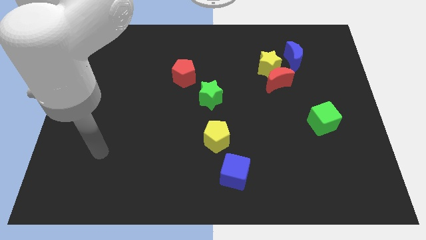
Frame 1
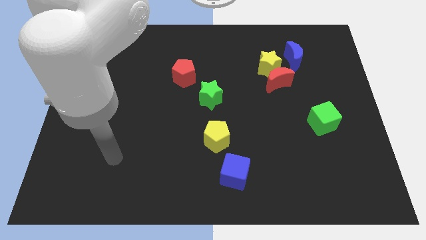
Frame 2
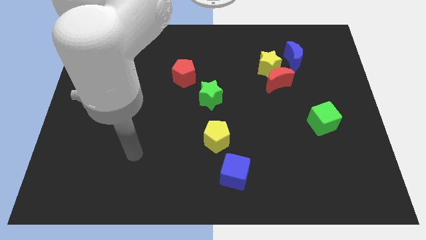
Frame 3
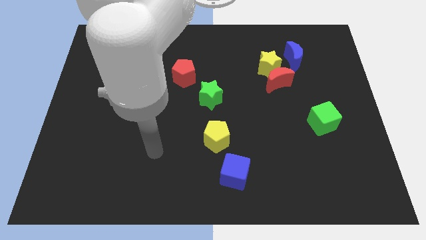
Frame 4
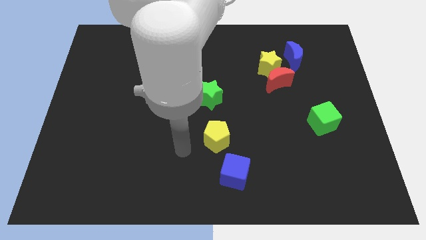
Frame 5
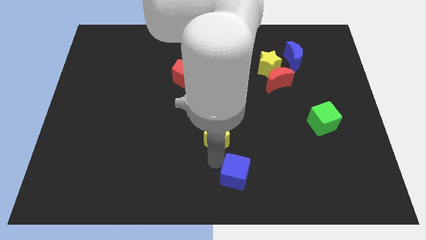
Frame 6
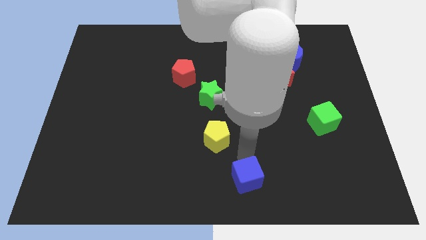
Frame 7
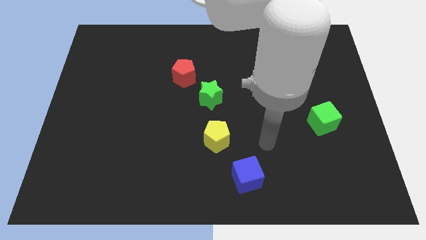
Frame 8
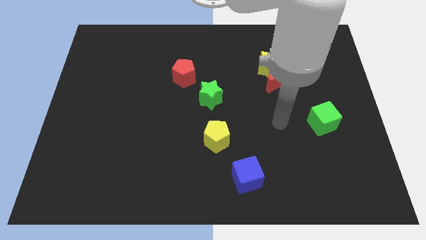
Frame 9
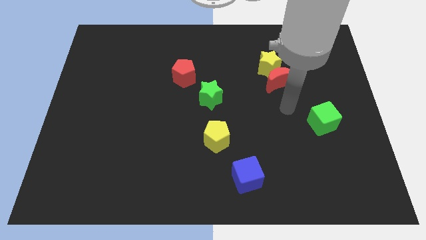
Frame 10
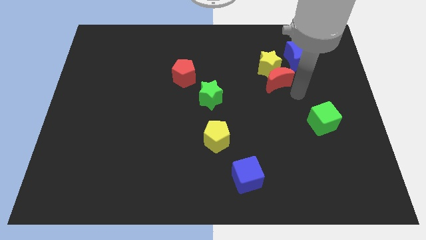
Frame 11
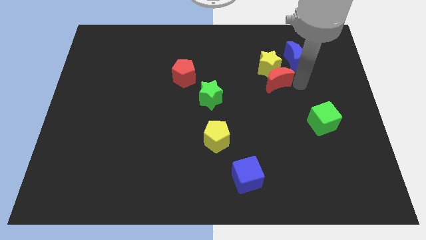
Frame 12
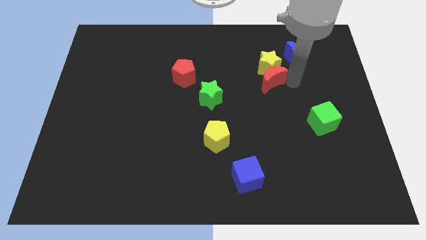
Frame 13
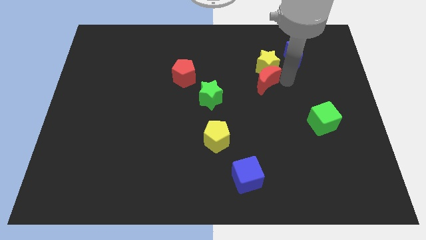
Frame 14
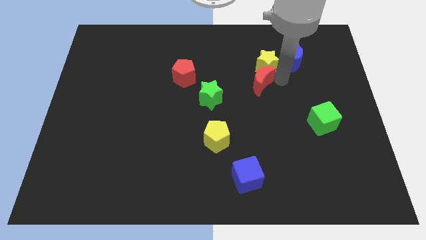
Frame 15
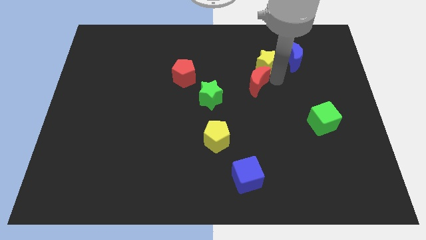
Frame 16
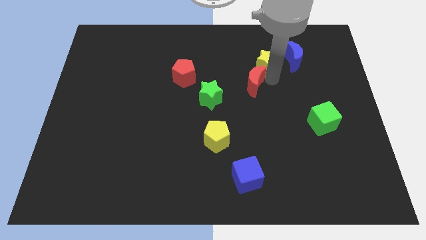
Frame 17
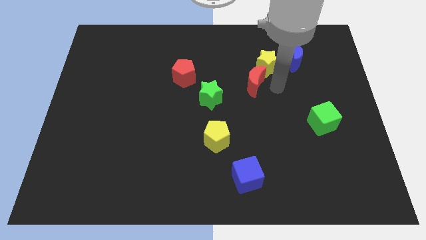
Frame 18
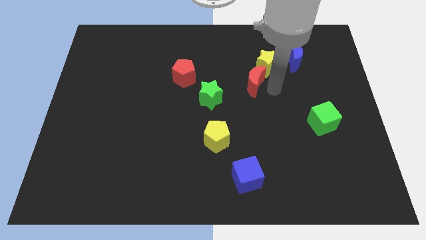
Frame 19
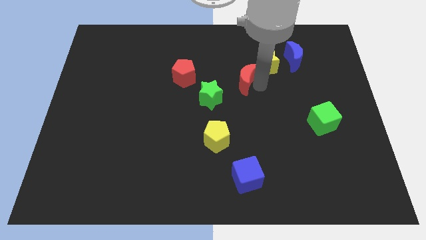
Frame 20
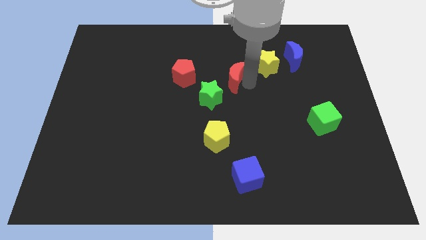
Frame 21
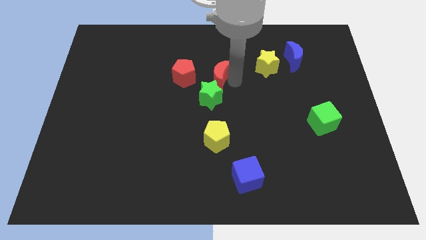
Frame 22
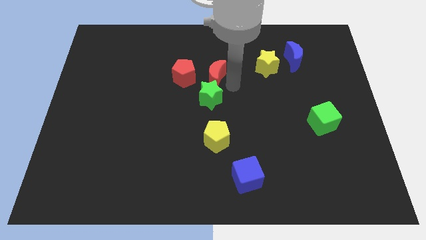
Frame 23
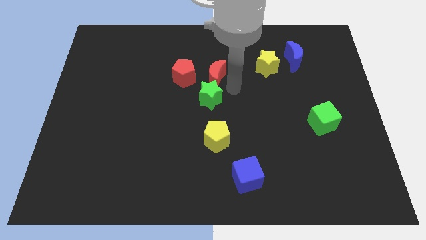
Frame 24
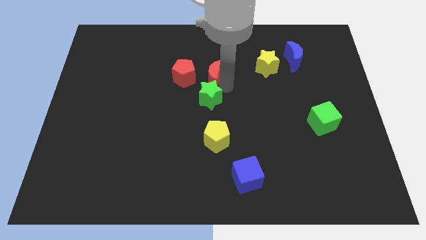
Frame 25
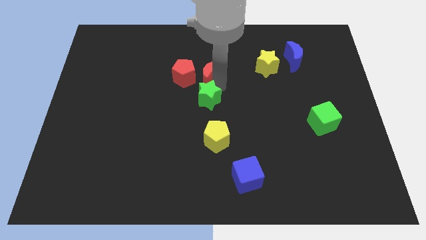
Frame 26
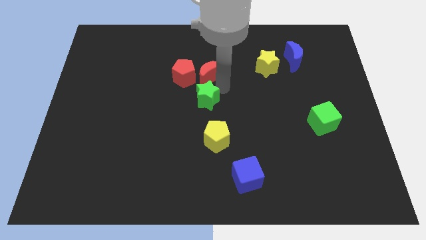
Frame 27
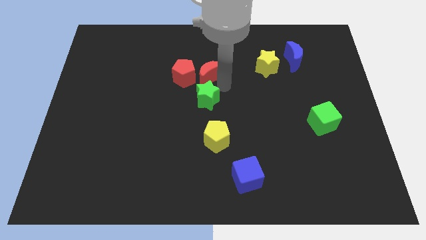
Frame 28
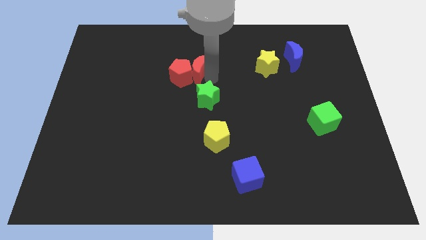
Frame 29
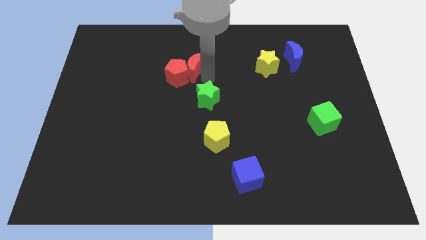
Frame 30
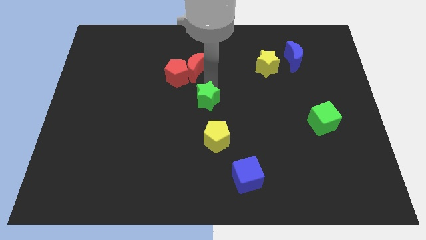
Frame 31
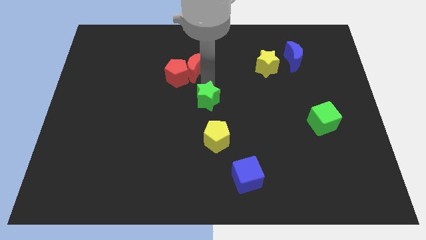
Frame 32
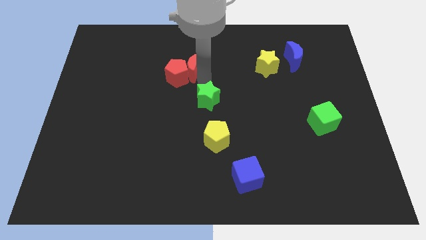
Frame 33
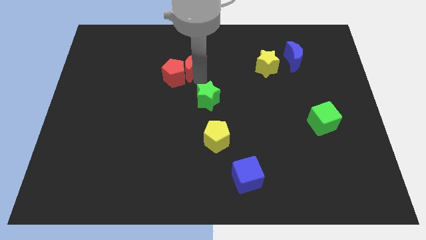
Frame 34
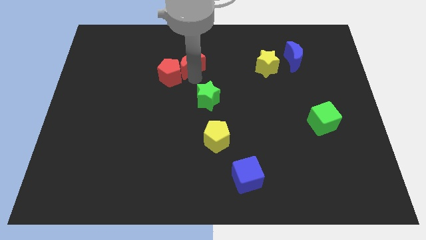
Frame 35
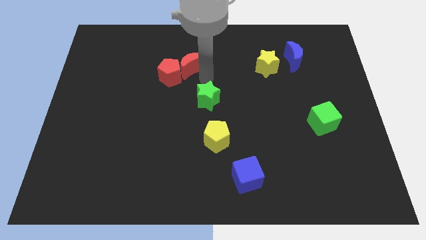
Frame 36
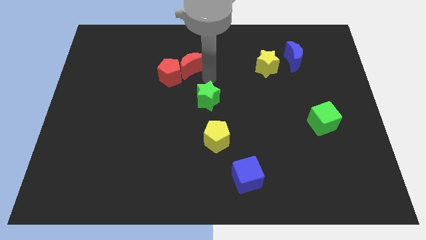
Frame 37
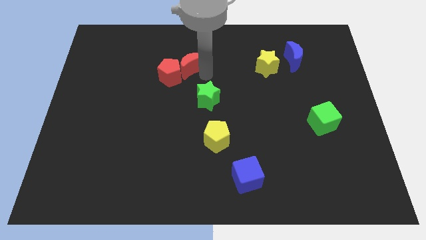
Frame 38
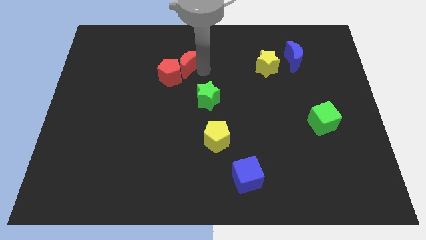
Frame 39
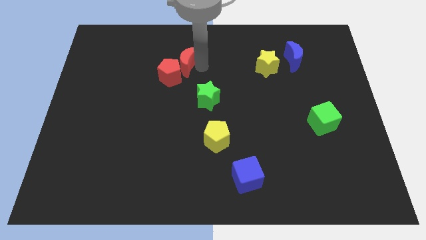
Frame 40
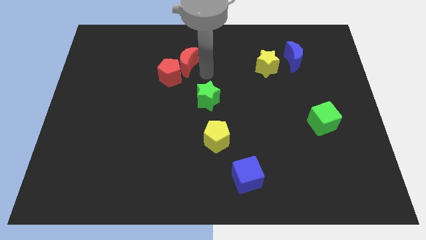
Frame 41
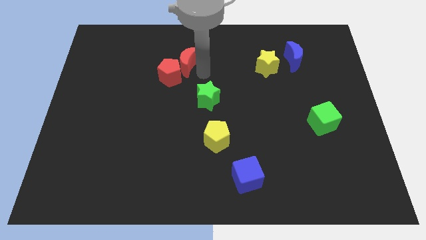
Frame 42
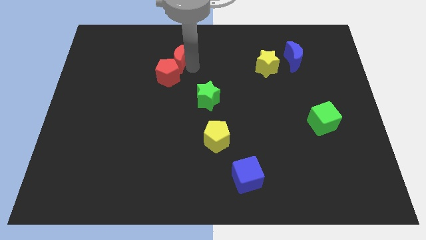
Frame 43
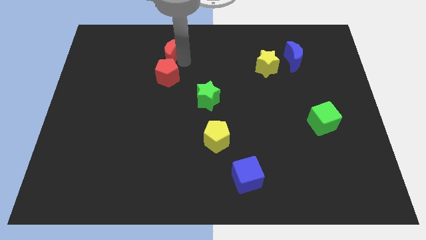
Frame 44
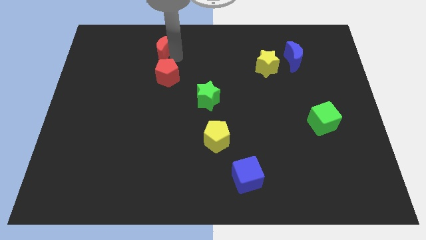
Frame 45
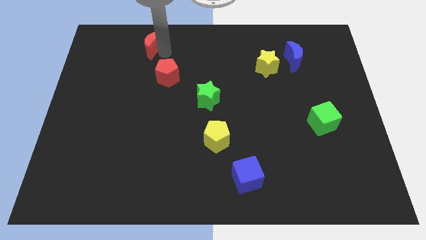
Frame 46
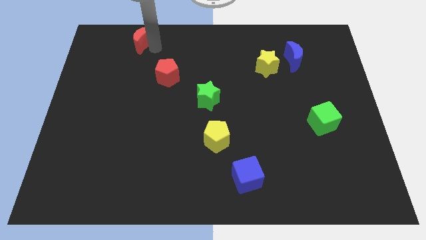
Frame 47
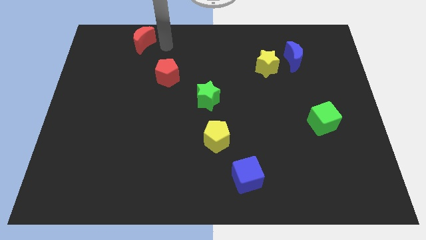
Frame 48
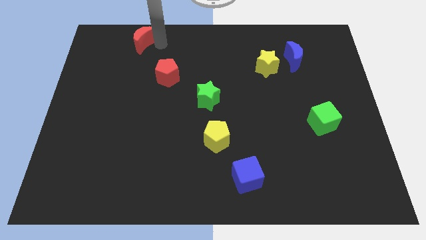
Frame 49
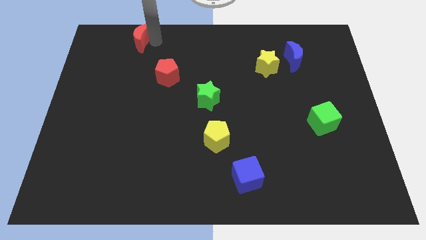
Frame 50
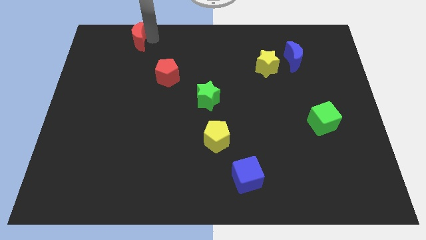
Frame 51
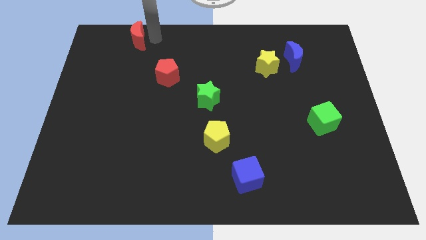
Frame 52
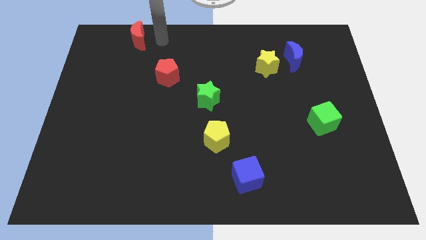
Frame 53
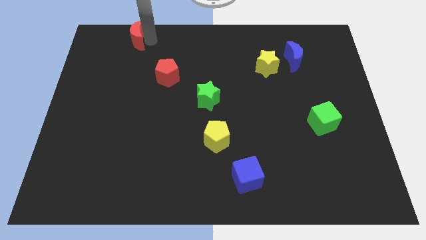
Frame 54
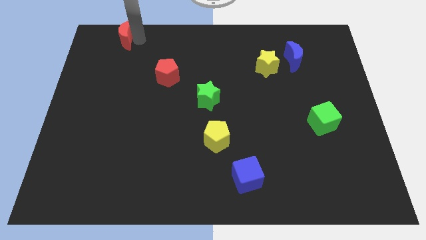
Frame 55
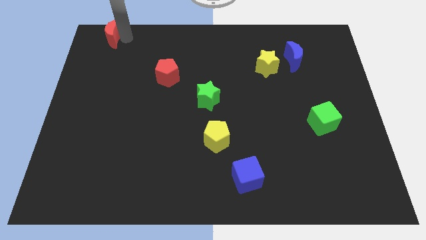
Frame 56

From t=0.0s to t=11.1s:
push the red moon to the top left of the board

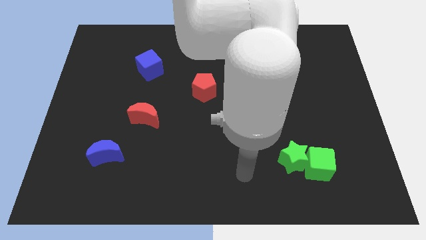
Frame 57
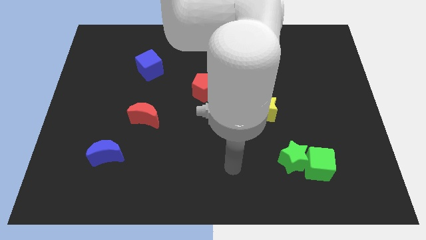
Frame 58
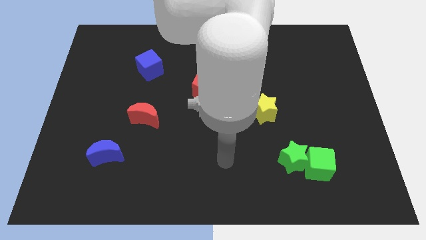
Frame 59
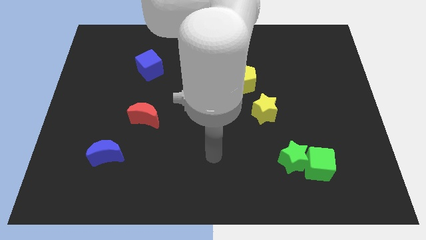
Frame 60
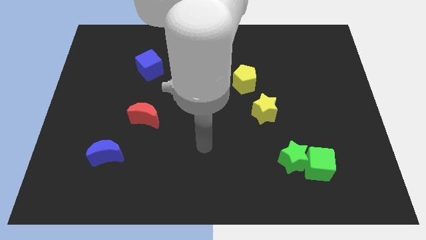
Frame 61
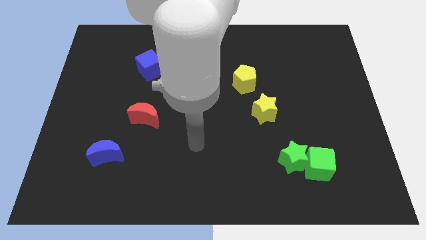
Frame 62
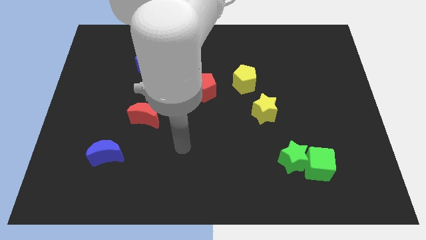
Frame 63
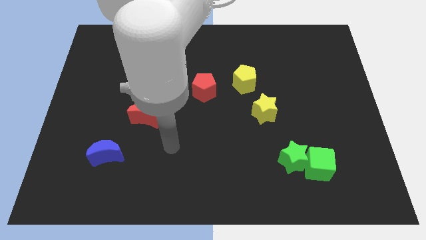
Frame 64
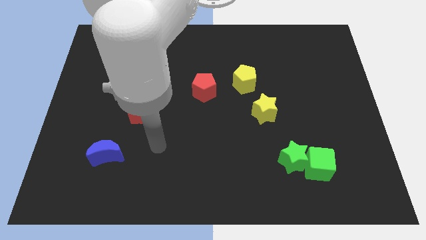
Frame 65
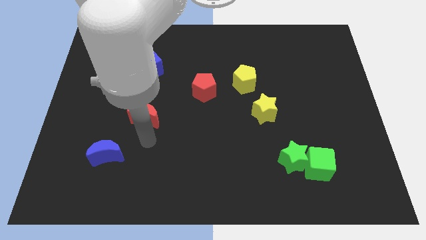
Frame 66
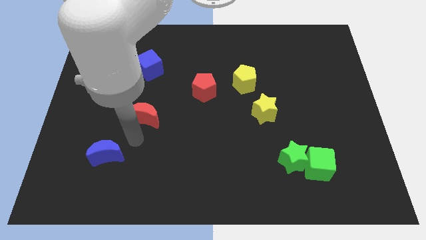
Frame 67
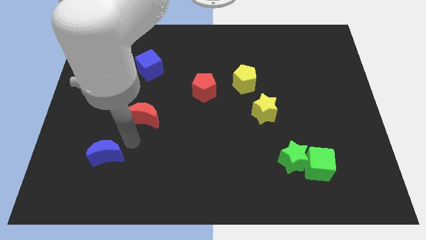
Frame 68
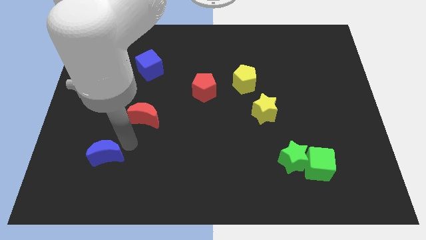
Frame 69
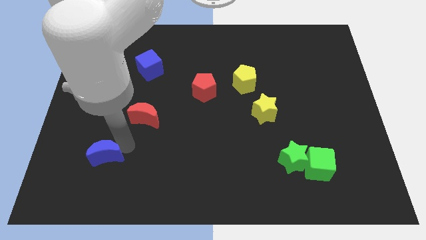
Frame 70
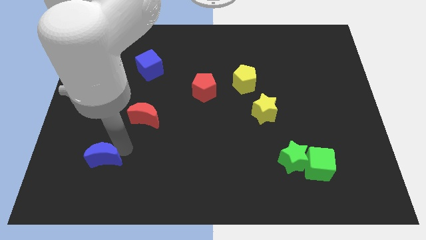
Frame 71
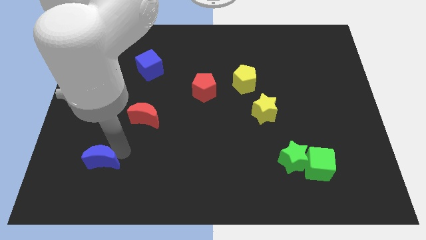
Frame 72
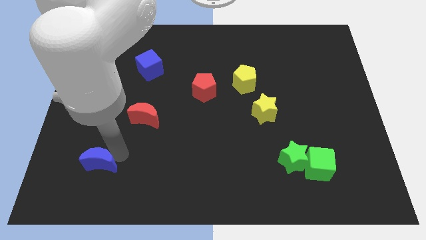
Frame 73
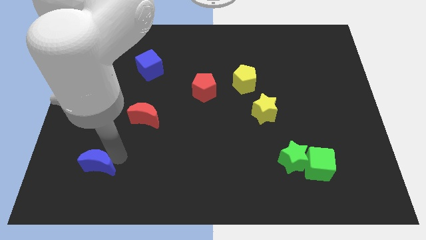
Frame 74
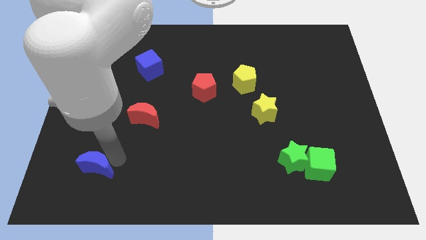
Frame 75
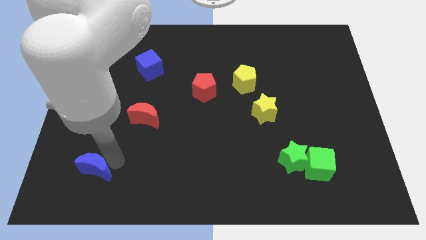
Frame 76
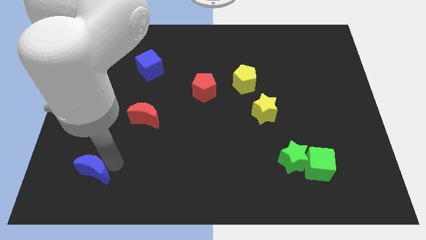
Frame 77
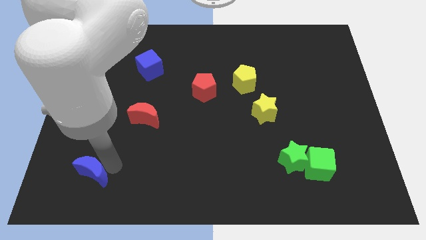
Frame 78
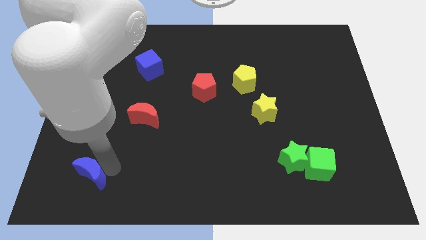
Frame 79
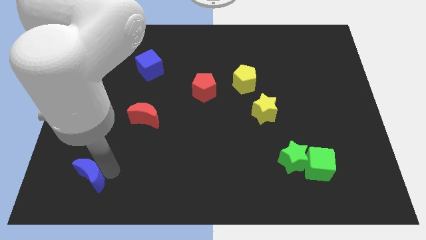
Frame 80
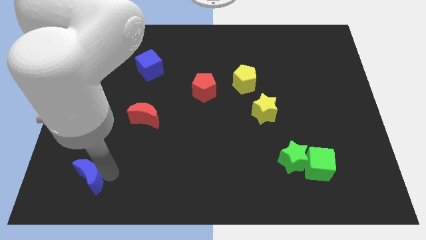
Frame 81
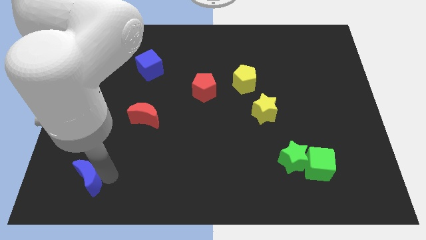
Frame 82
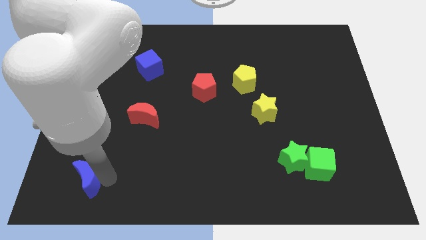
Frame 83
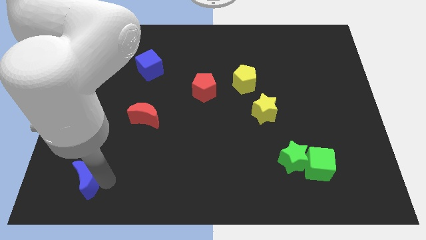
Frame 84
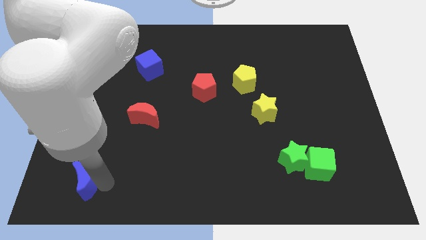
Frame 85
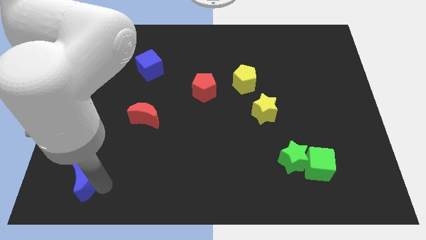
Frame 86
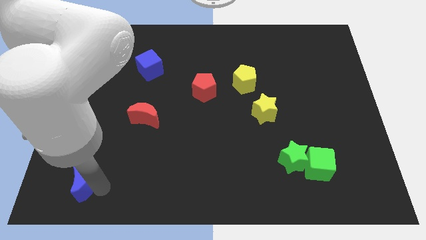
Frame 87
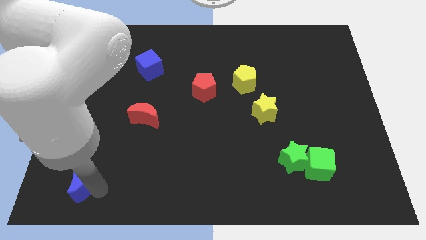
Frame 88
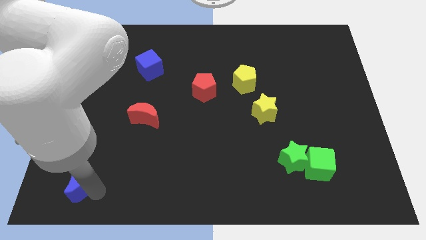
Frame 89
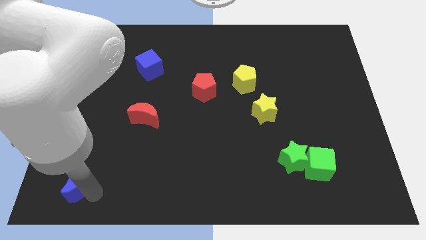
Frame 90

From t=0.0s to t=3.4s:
move the blue moon to the lower left corner
